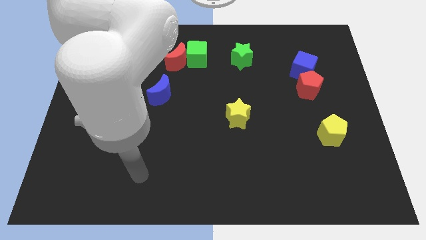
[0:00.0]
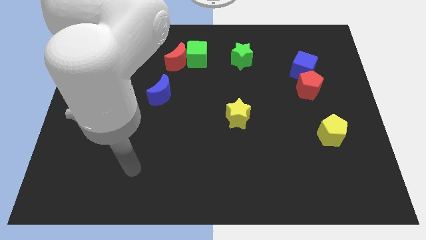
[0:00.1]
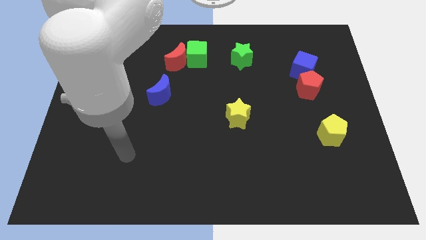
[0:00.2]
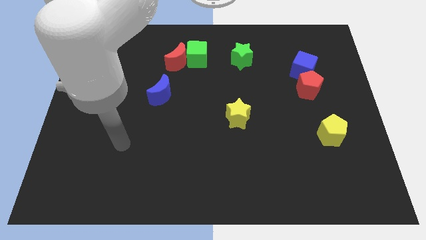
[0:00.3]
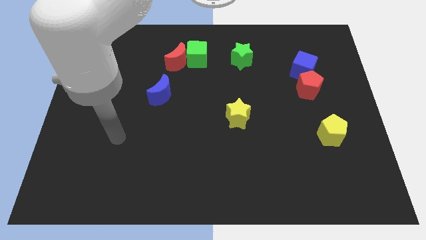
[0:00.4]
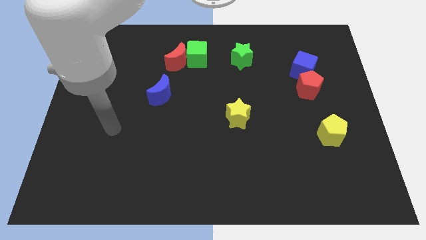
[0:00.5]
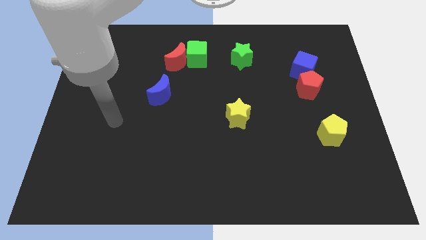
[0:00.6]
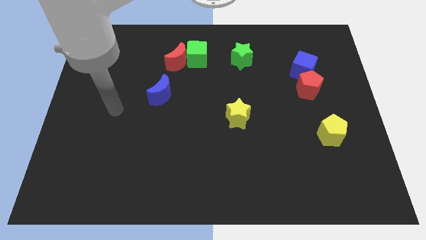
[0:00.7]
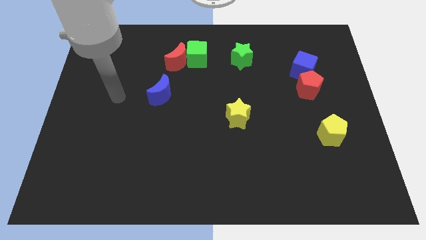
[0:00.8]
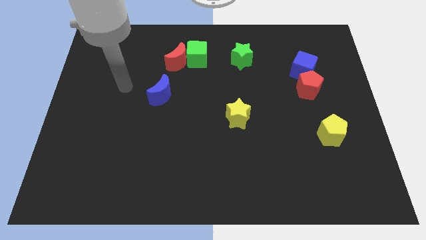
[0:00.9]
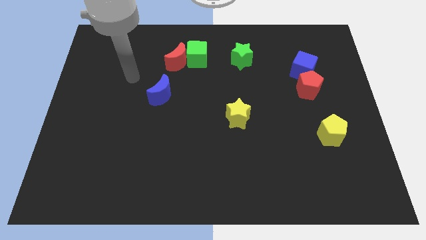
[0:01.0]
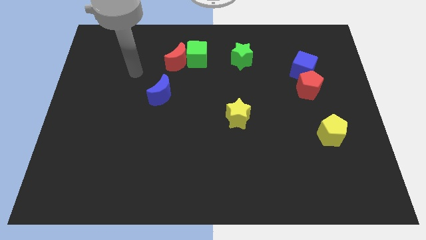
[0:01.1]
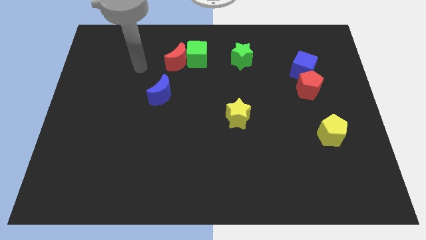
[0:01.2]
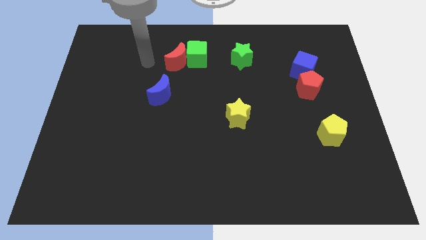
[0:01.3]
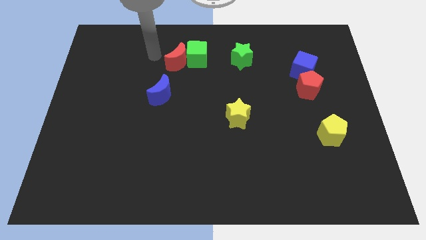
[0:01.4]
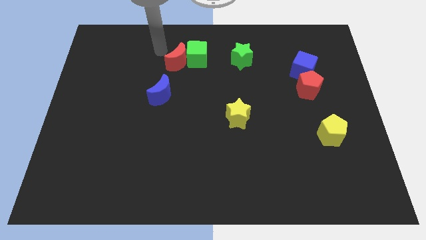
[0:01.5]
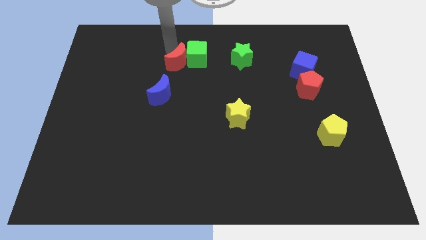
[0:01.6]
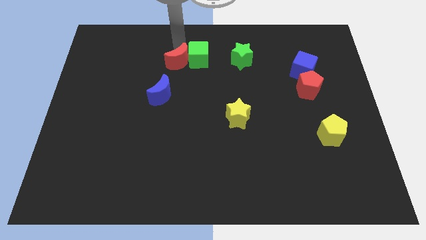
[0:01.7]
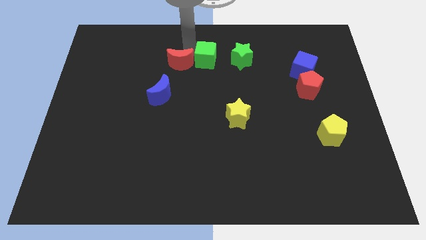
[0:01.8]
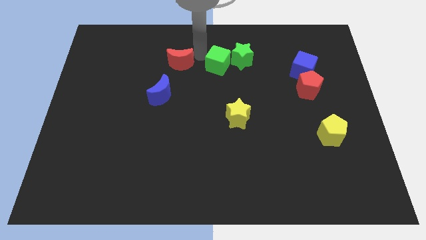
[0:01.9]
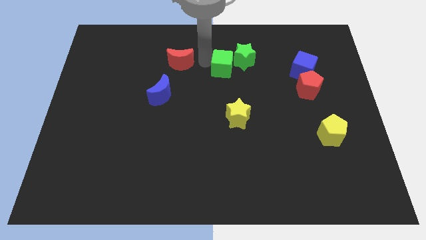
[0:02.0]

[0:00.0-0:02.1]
move the red moon away from the green cube

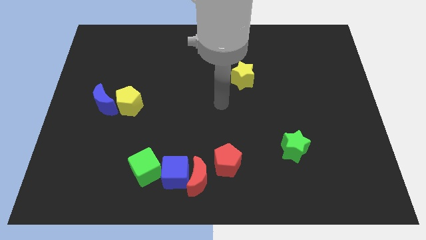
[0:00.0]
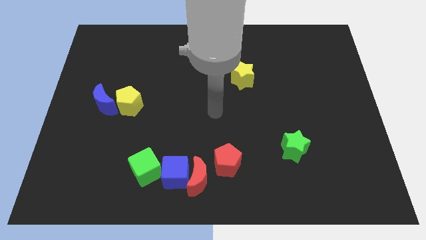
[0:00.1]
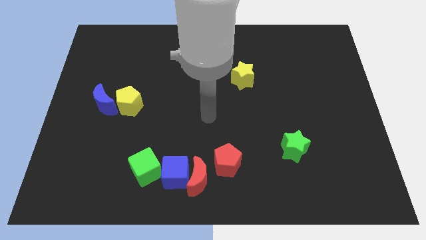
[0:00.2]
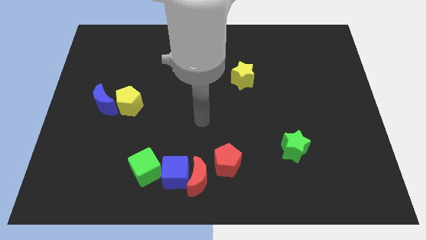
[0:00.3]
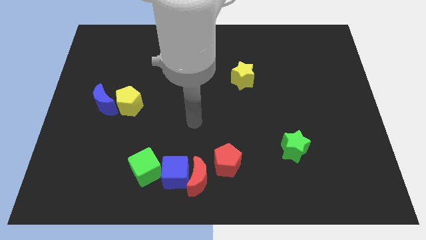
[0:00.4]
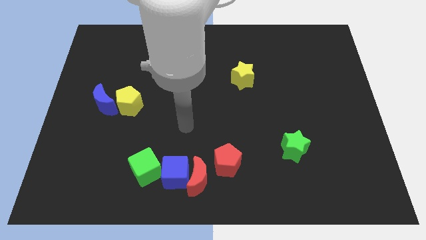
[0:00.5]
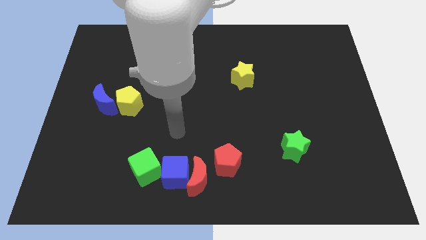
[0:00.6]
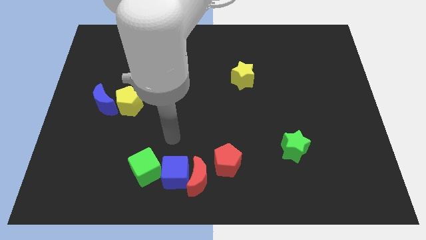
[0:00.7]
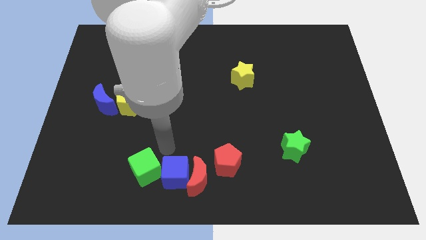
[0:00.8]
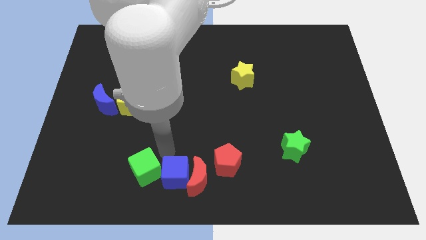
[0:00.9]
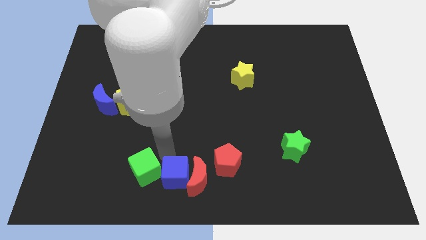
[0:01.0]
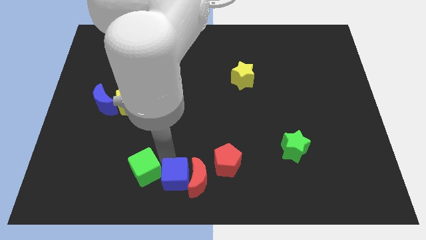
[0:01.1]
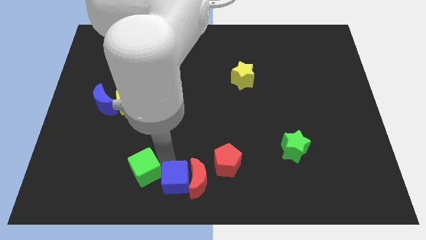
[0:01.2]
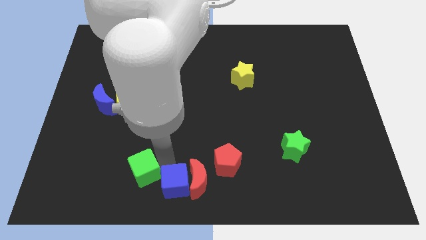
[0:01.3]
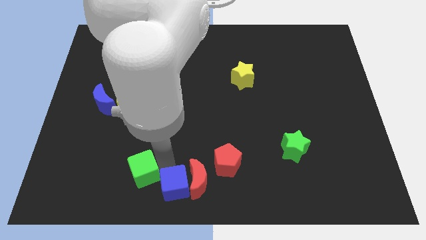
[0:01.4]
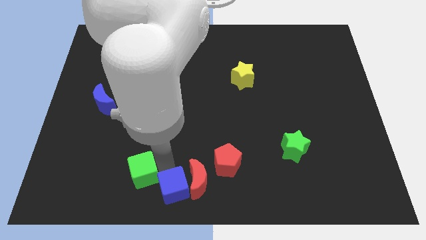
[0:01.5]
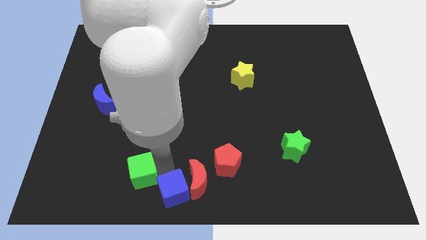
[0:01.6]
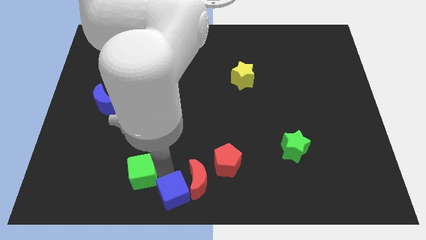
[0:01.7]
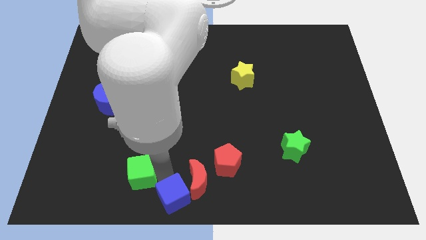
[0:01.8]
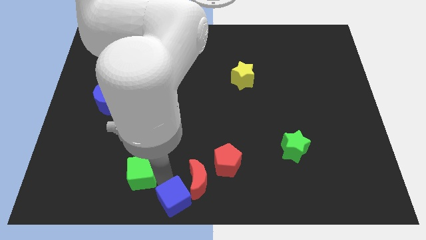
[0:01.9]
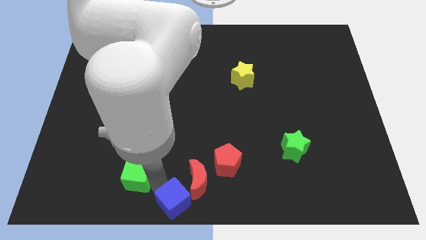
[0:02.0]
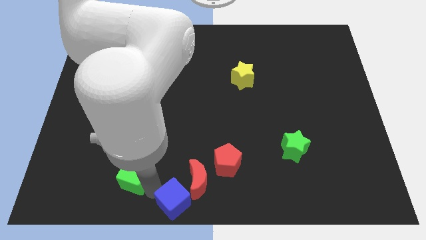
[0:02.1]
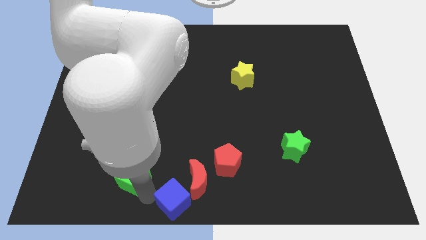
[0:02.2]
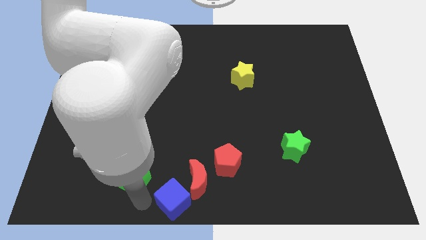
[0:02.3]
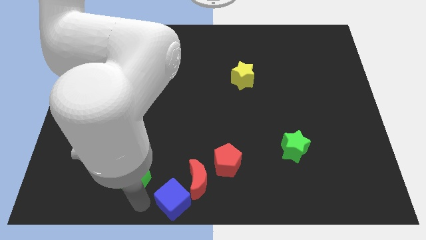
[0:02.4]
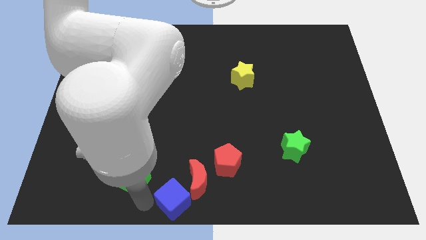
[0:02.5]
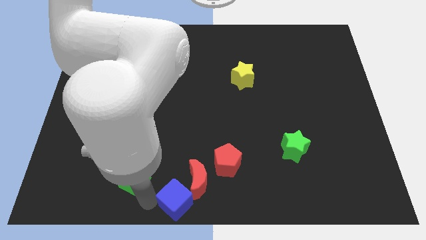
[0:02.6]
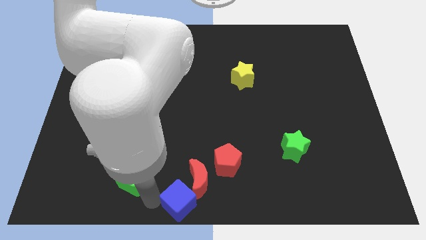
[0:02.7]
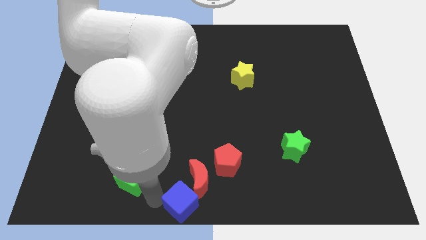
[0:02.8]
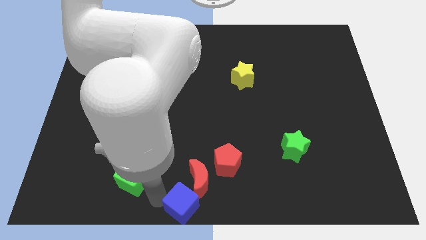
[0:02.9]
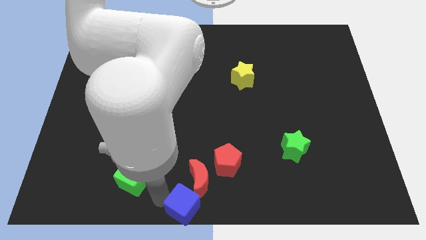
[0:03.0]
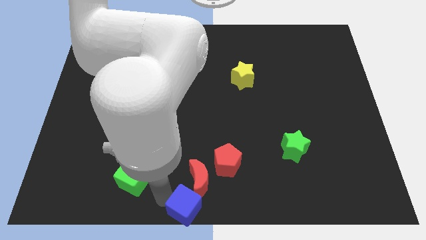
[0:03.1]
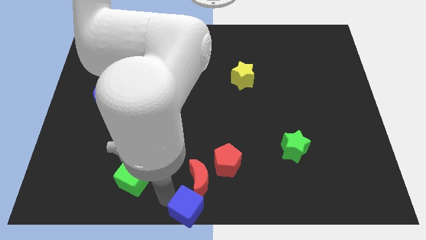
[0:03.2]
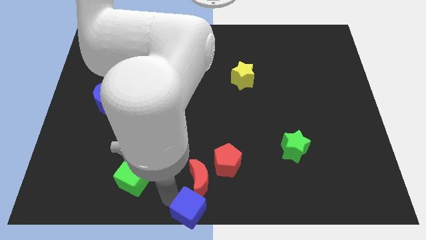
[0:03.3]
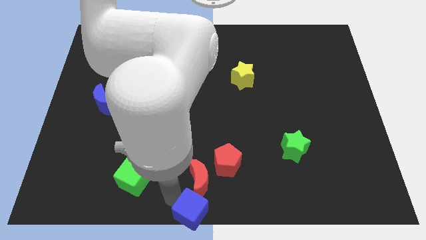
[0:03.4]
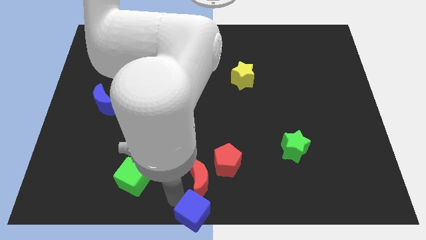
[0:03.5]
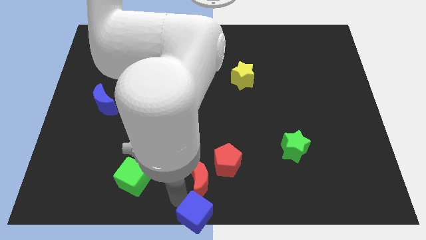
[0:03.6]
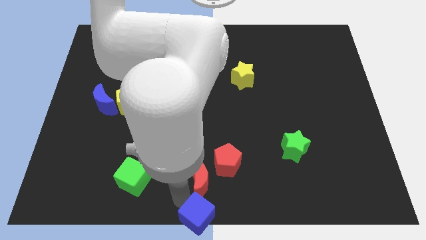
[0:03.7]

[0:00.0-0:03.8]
move the blue cube away from the red moon and green cube

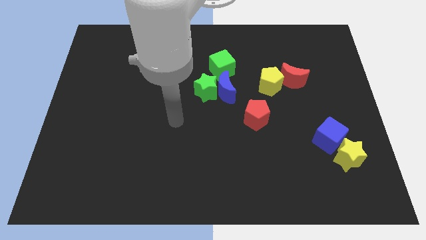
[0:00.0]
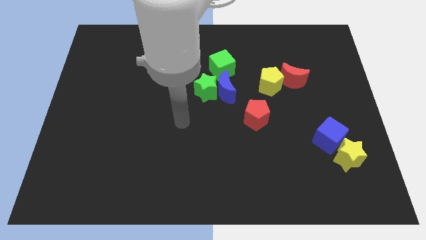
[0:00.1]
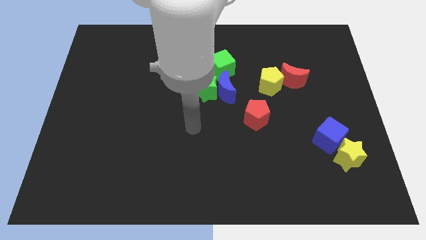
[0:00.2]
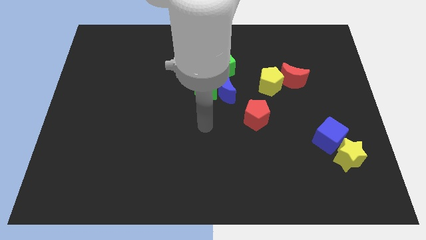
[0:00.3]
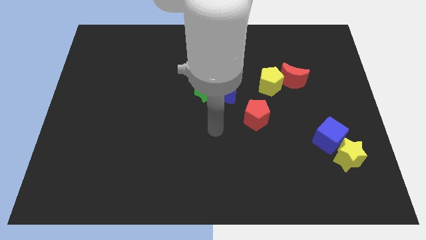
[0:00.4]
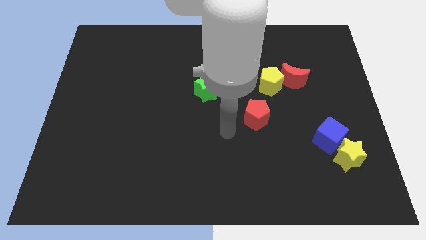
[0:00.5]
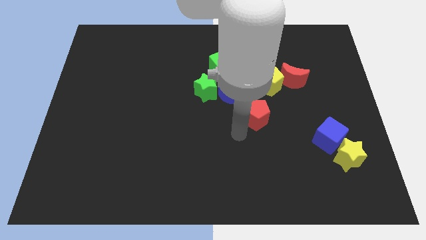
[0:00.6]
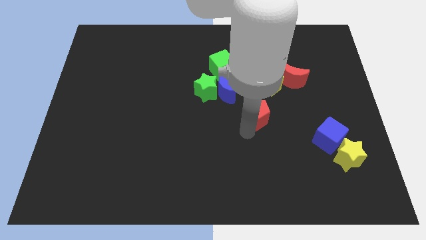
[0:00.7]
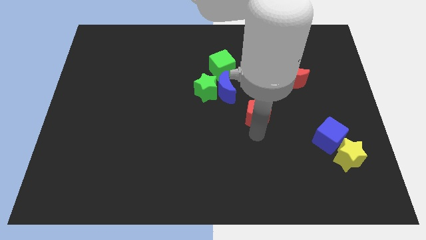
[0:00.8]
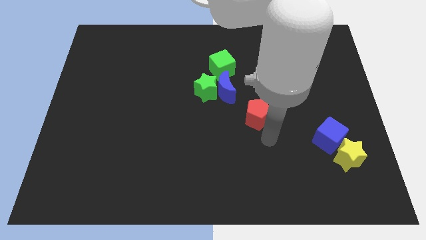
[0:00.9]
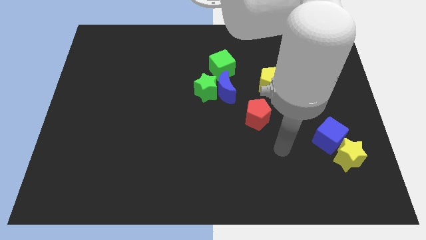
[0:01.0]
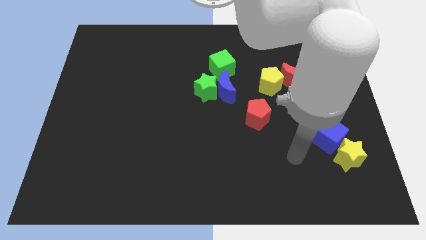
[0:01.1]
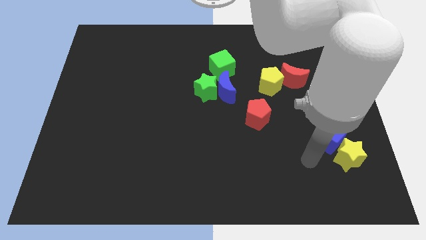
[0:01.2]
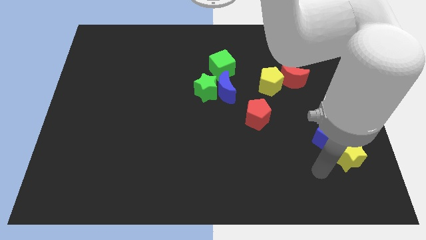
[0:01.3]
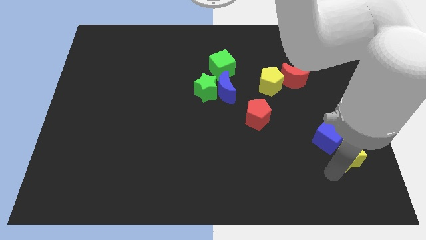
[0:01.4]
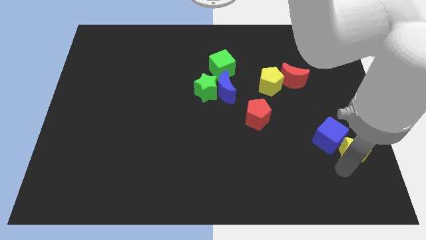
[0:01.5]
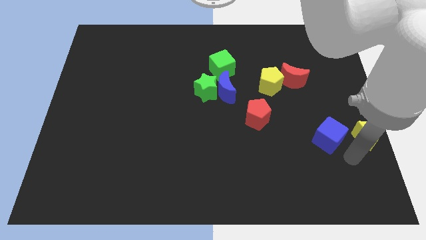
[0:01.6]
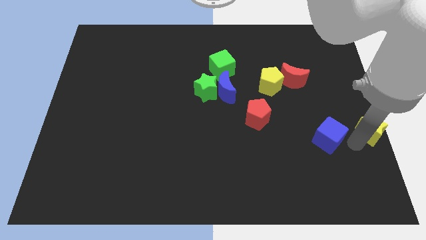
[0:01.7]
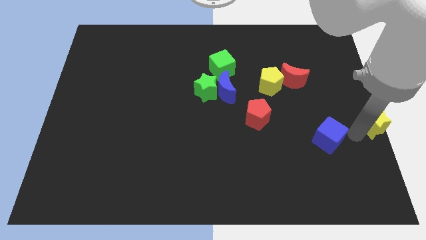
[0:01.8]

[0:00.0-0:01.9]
separate the blue cube from the yellow star

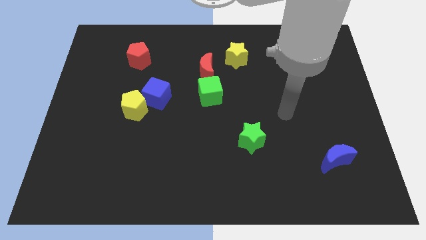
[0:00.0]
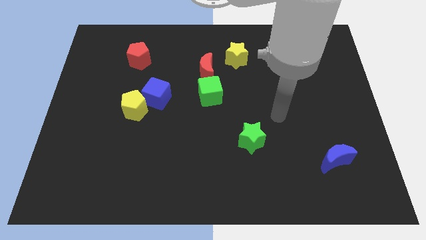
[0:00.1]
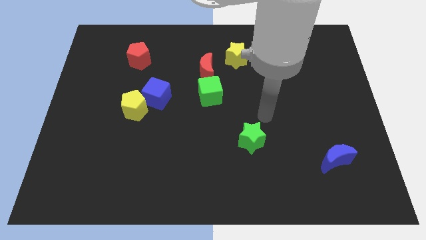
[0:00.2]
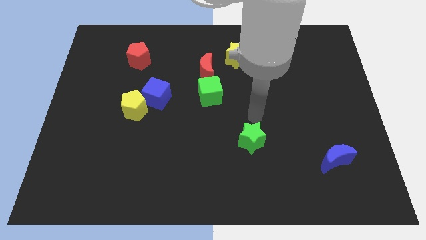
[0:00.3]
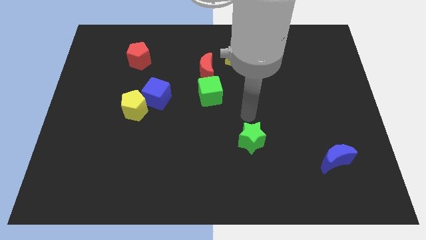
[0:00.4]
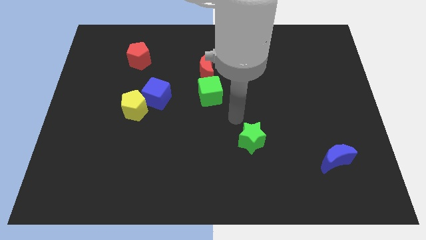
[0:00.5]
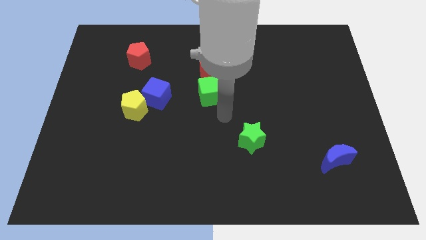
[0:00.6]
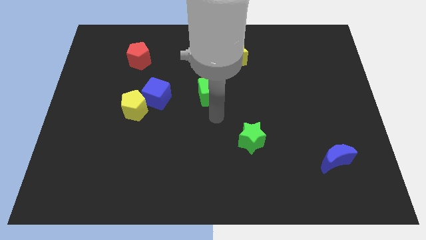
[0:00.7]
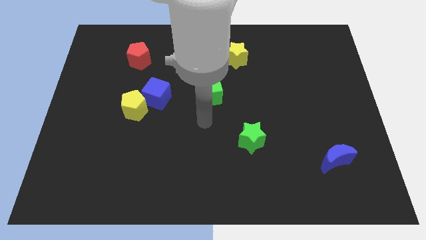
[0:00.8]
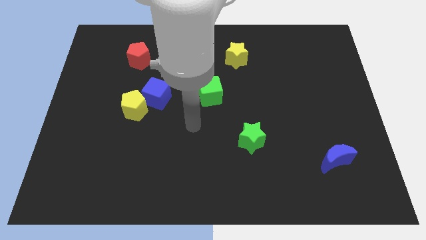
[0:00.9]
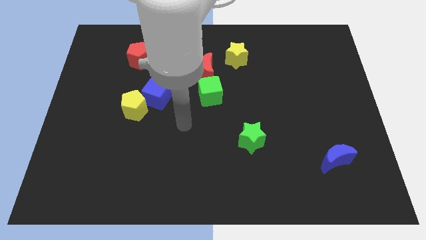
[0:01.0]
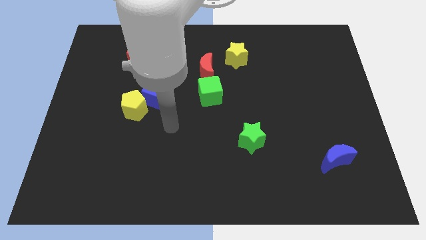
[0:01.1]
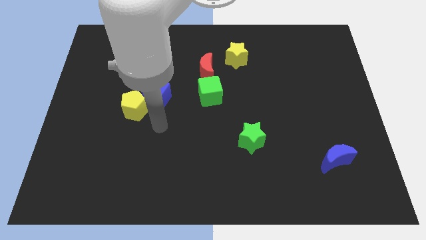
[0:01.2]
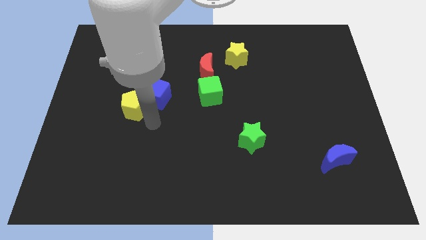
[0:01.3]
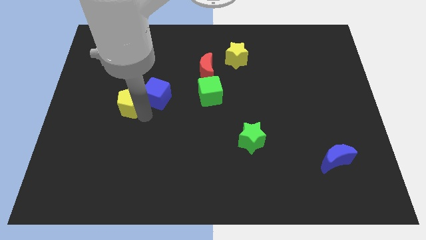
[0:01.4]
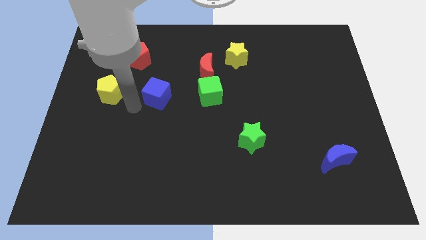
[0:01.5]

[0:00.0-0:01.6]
separate the blue cube from the yellow pentagon
